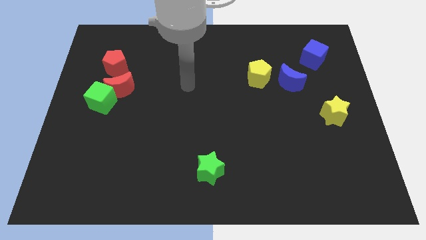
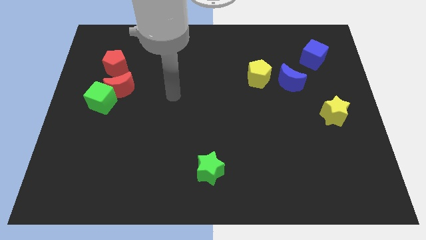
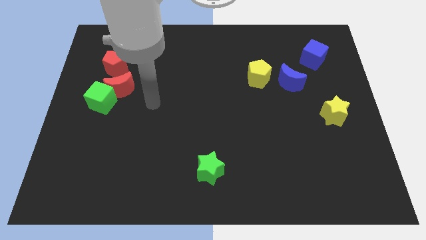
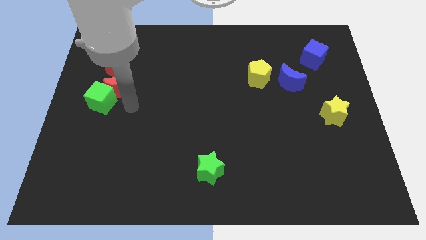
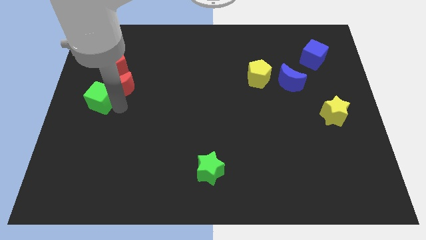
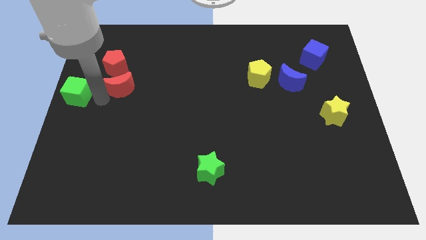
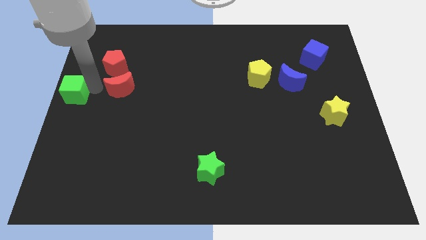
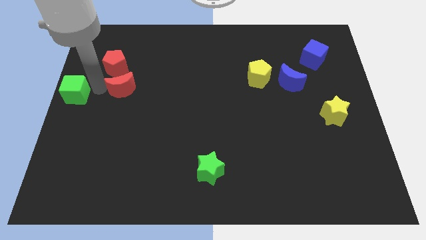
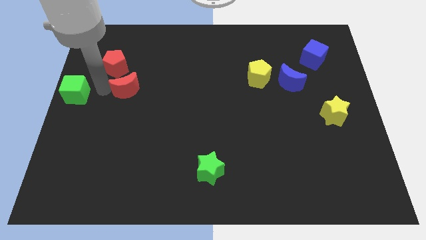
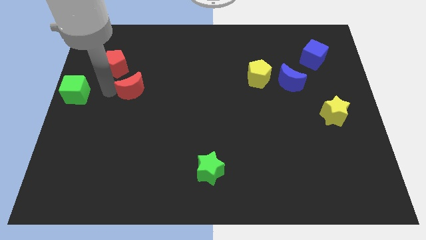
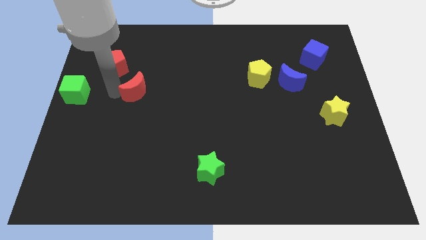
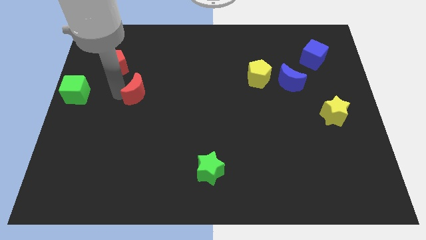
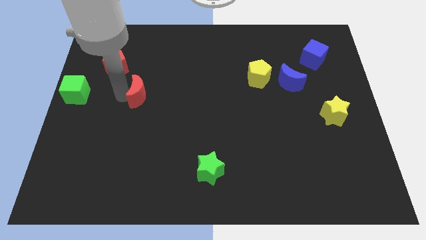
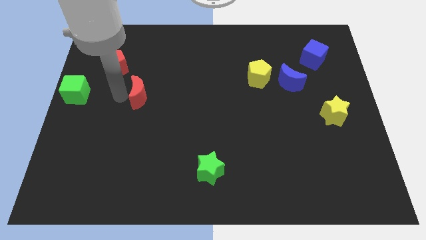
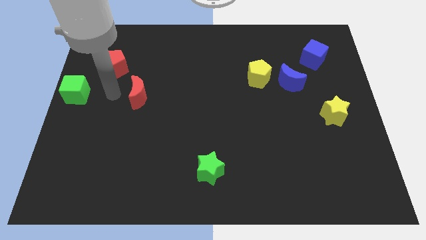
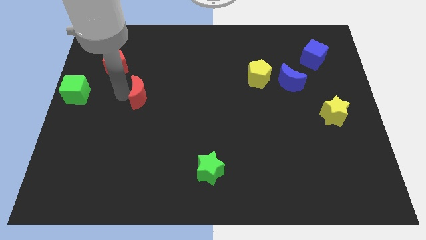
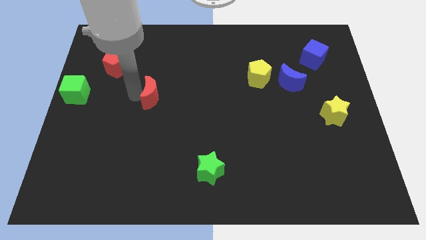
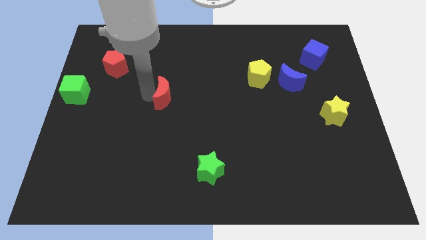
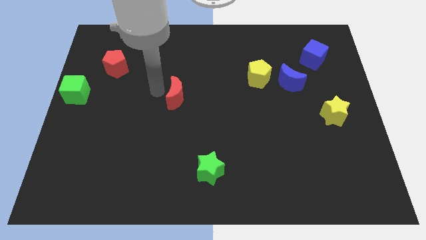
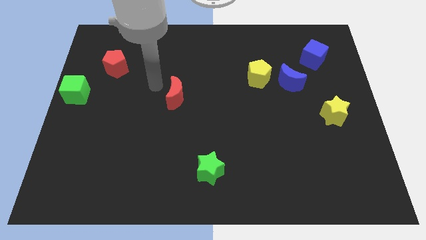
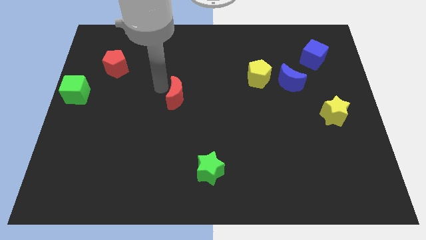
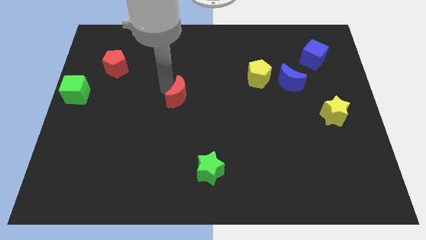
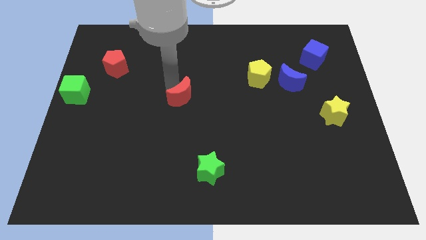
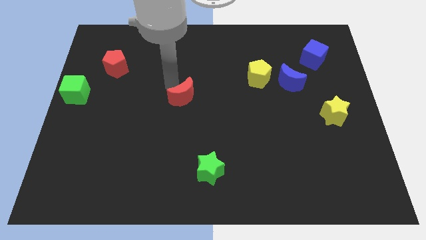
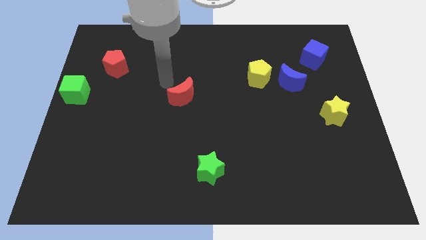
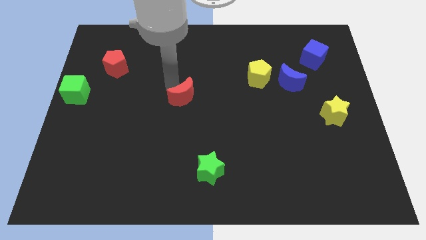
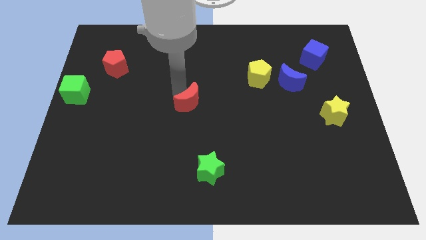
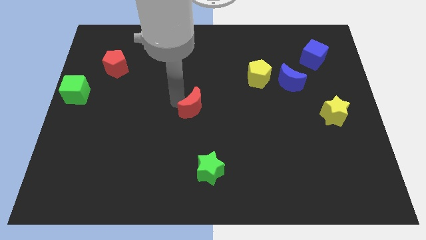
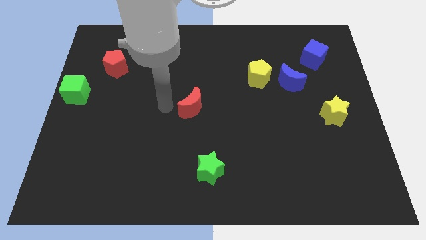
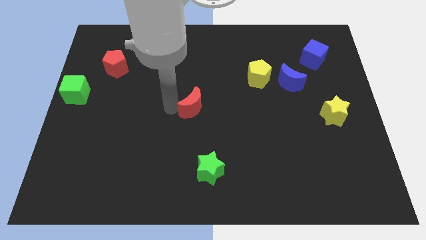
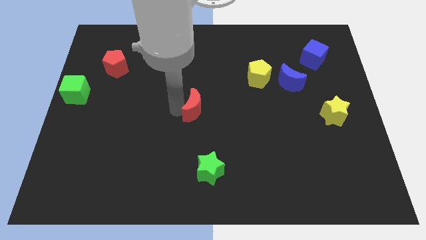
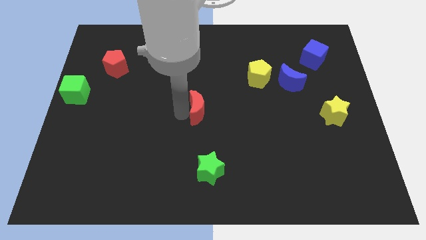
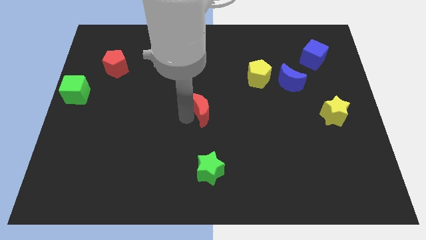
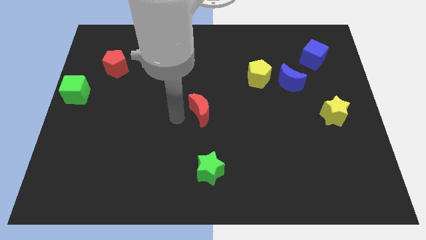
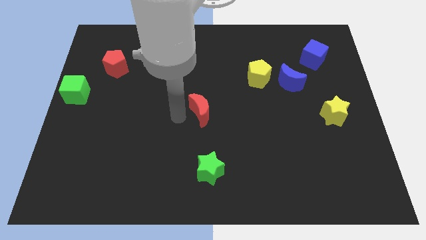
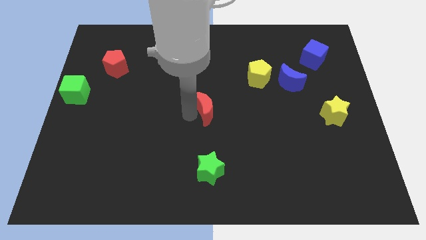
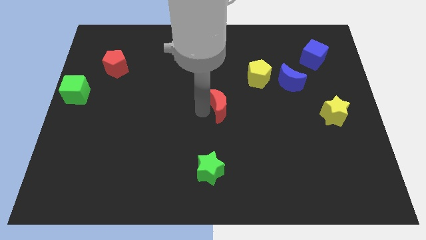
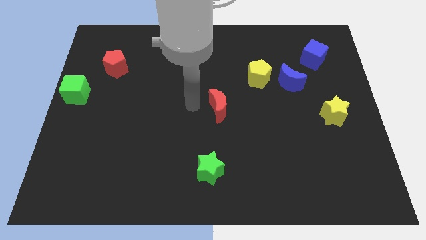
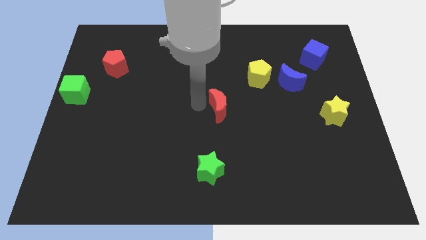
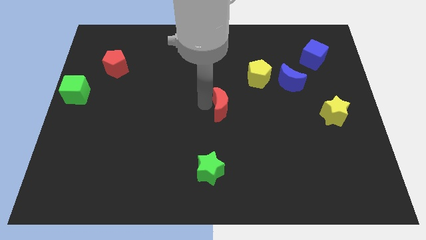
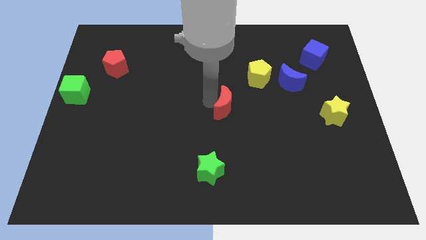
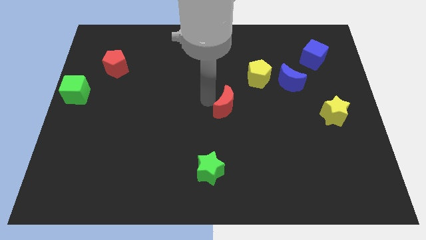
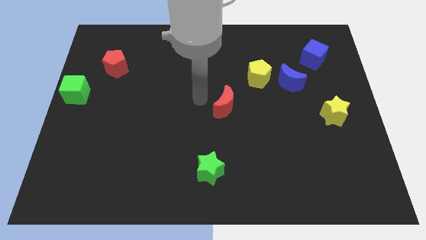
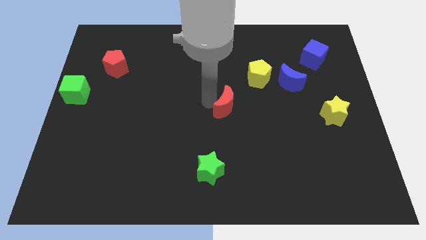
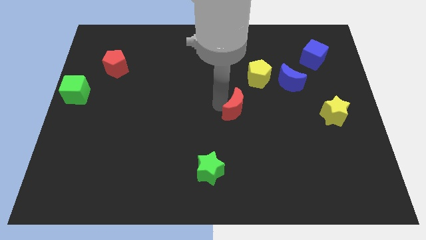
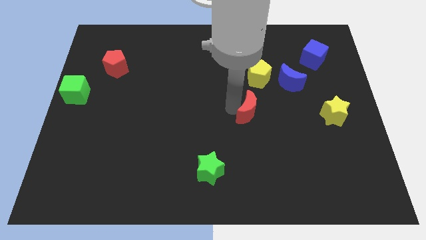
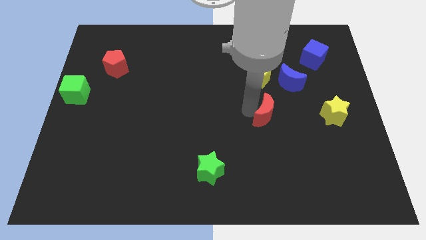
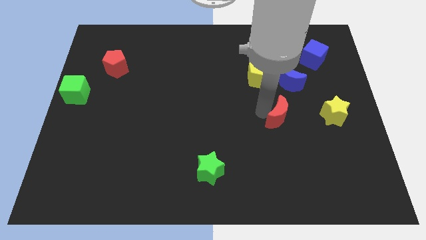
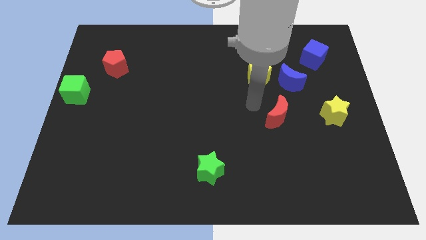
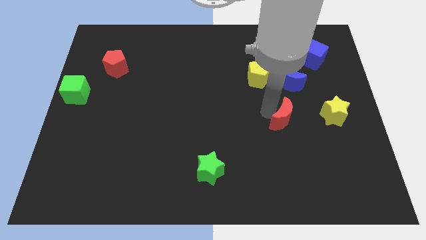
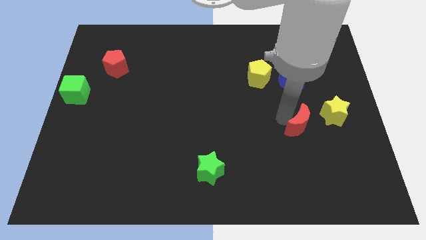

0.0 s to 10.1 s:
push the red moon diagonally down and to the left of the yellow star

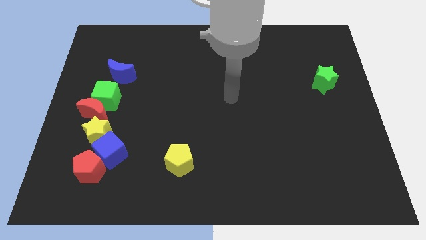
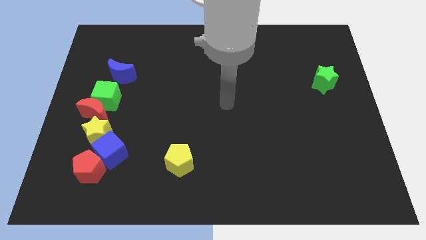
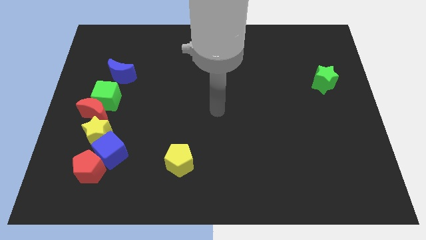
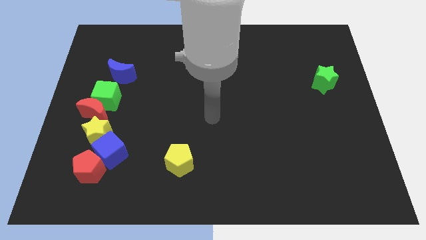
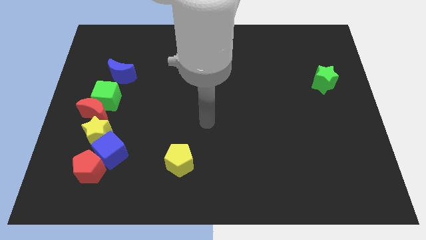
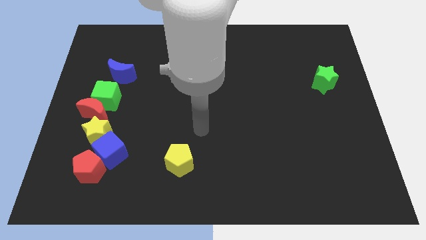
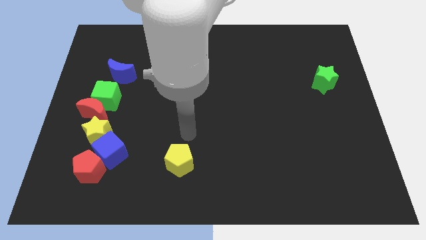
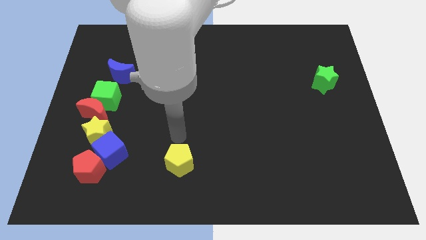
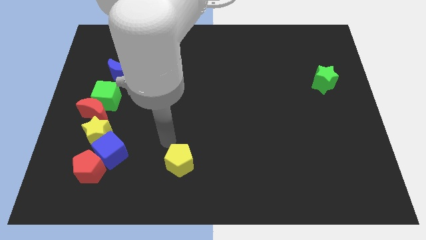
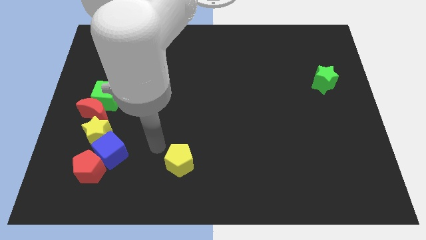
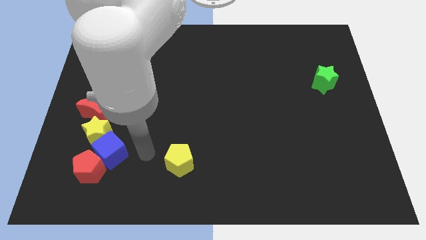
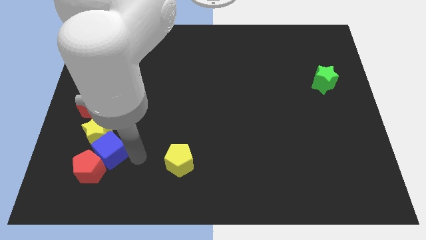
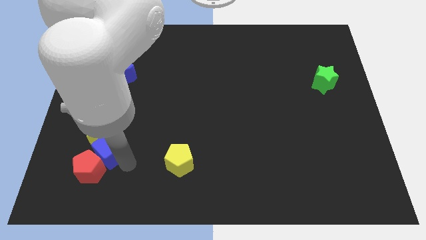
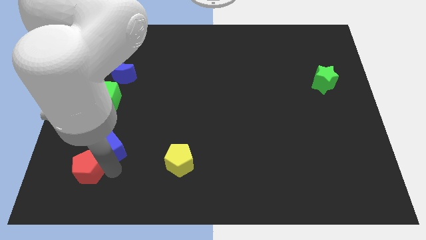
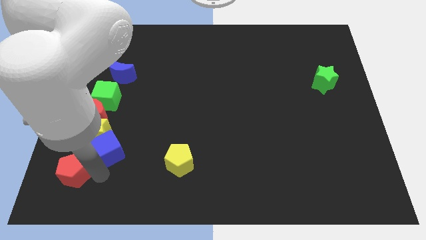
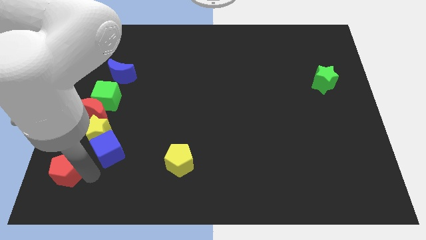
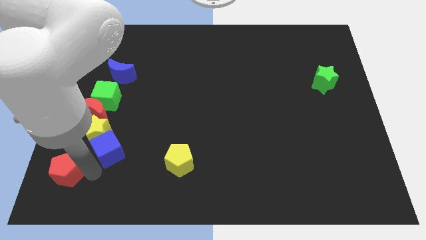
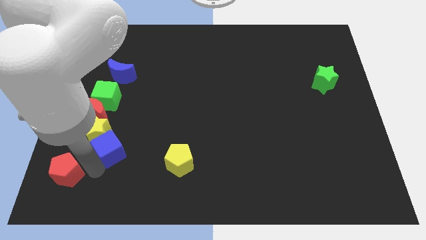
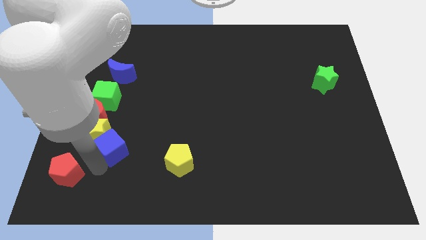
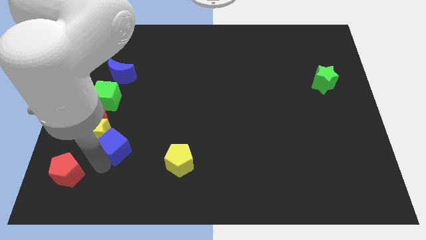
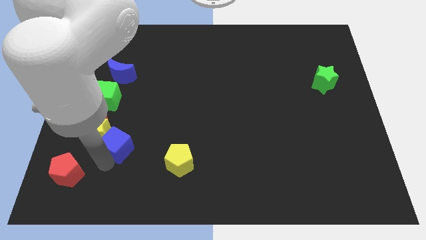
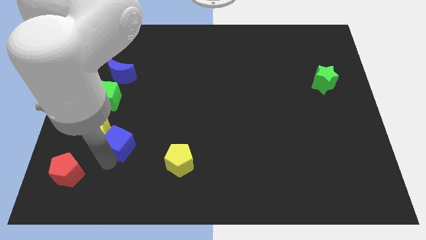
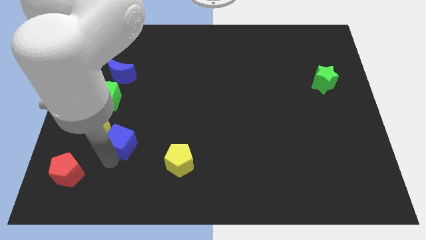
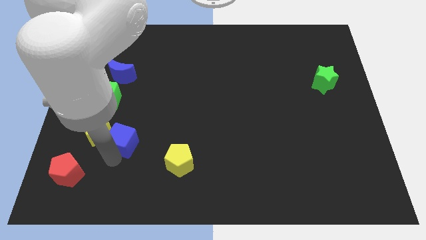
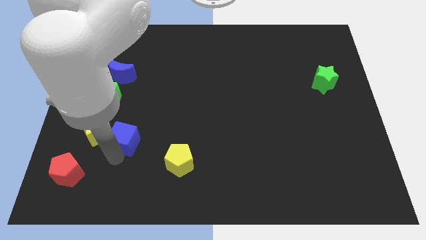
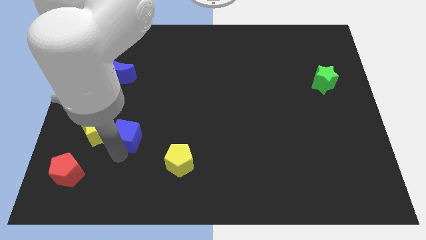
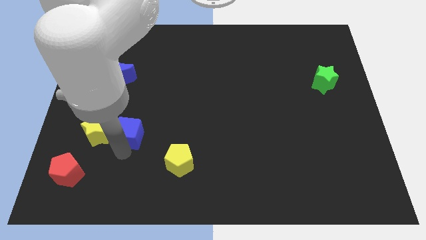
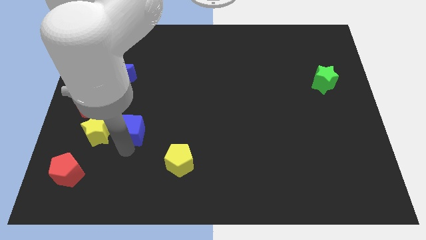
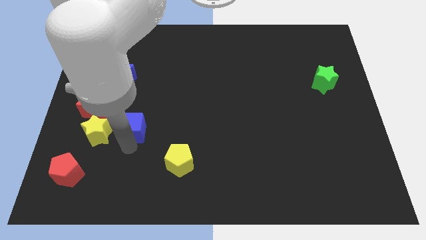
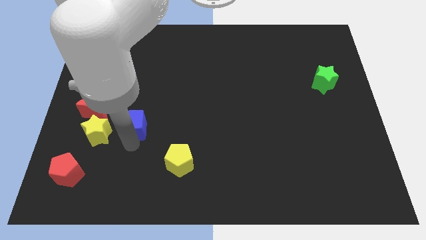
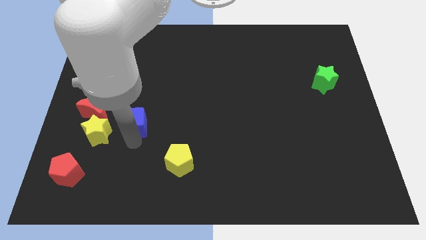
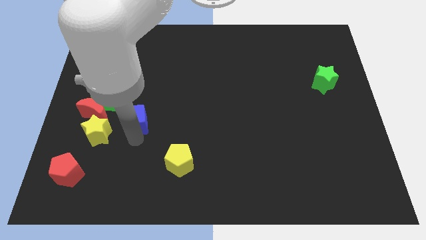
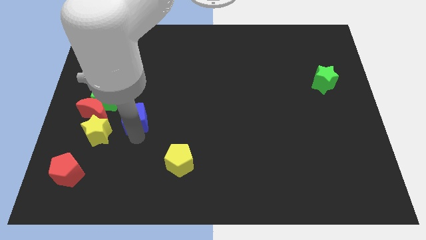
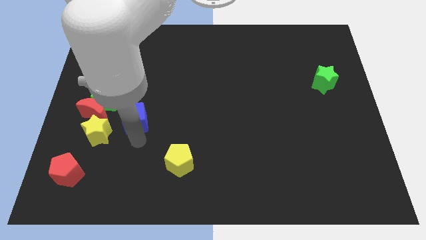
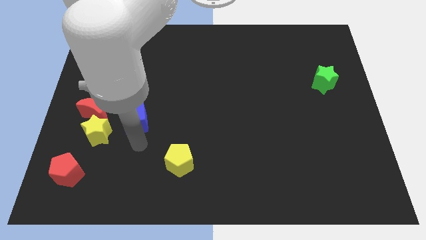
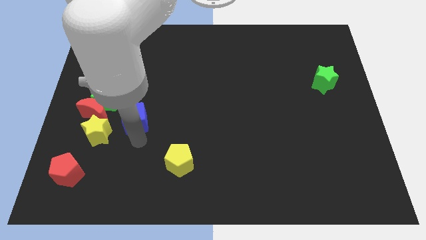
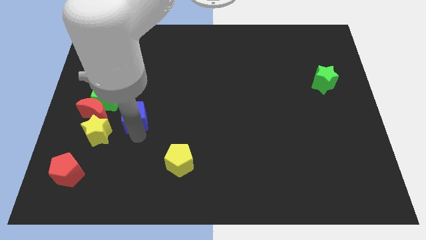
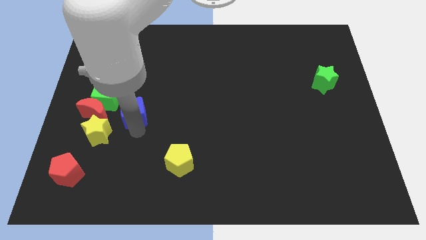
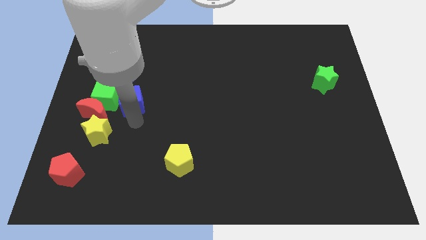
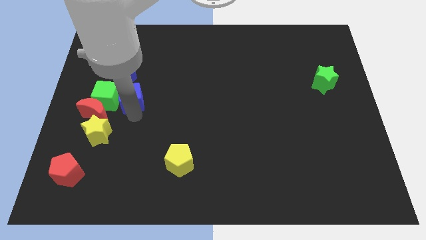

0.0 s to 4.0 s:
slide the blue cube diagonally up and to the right of the green cube
